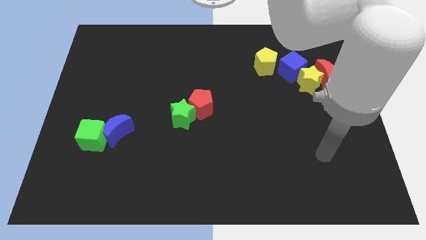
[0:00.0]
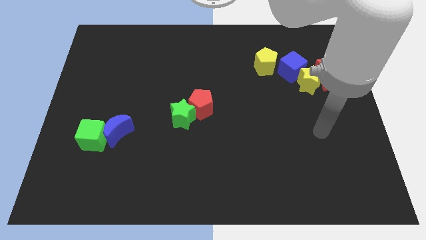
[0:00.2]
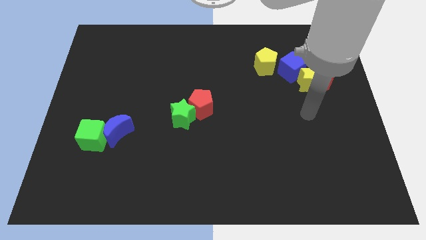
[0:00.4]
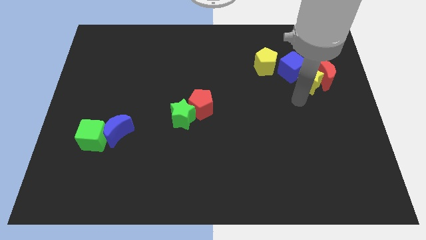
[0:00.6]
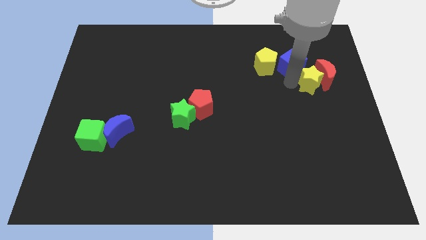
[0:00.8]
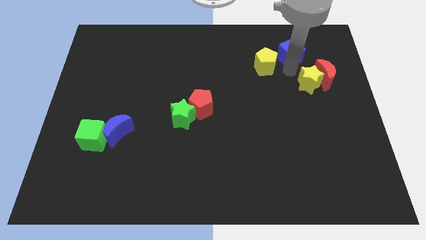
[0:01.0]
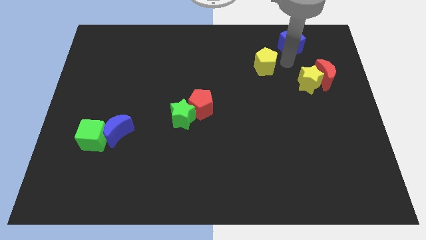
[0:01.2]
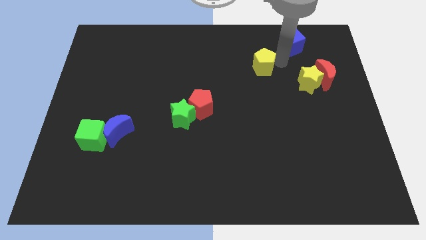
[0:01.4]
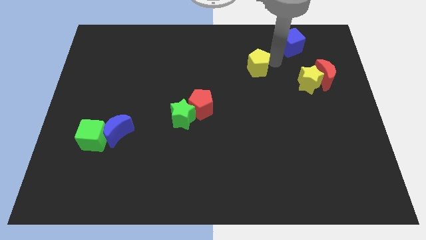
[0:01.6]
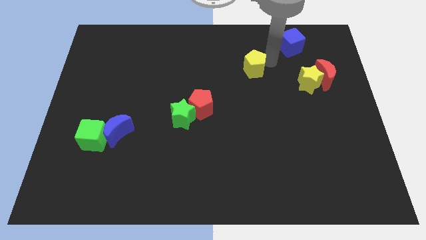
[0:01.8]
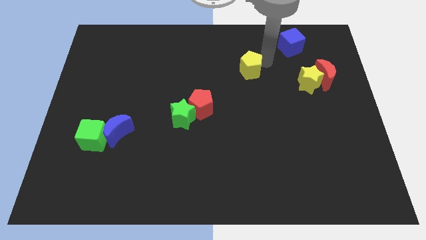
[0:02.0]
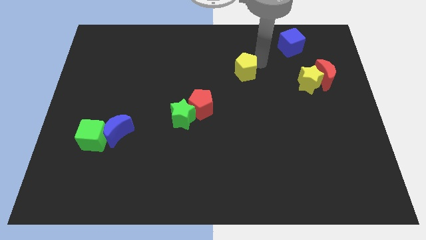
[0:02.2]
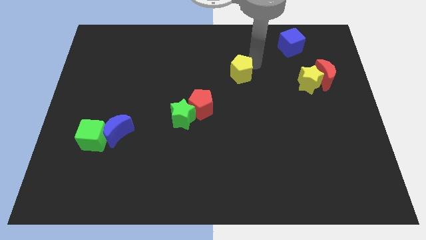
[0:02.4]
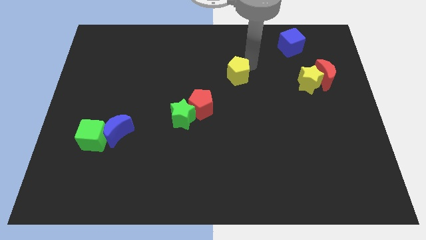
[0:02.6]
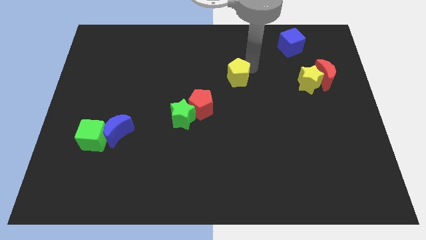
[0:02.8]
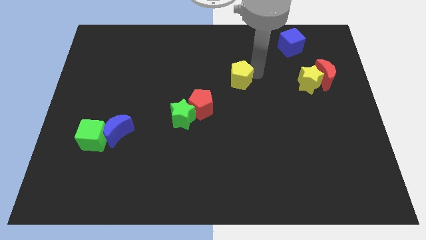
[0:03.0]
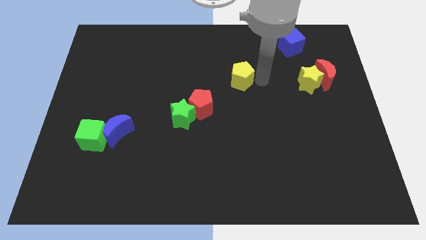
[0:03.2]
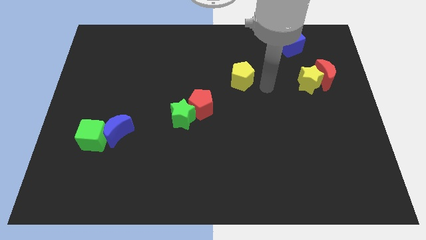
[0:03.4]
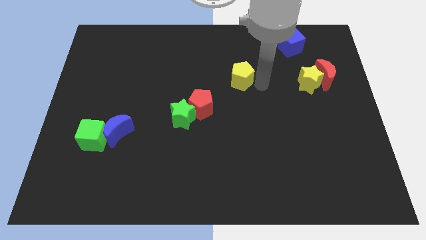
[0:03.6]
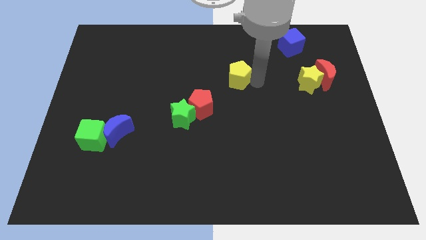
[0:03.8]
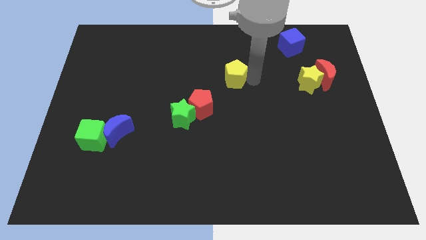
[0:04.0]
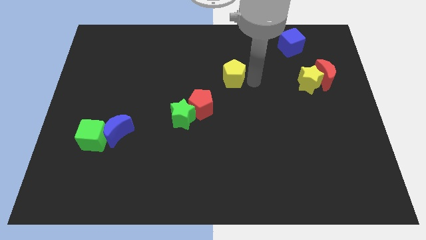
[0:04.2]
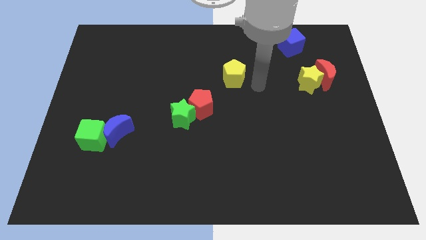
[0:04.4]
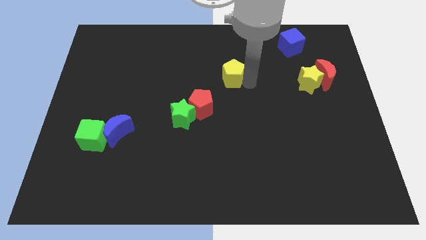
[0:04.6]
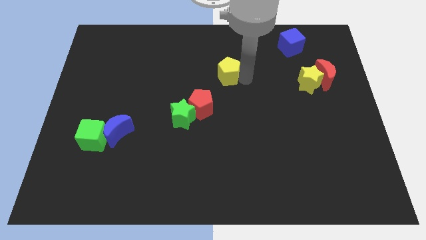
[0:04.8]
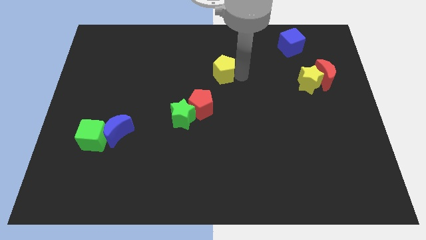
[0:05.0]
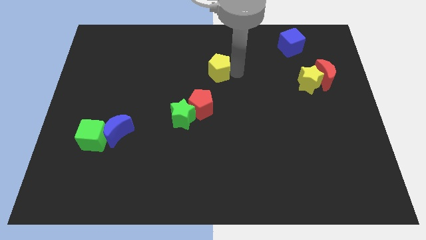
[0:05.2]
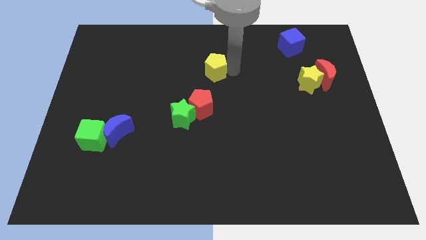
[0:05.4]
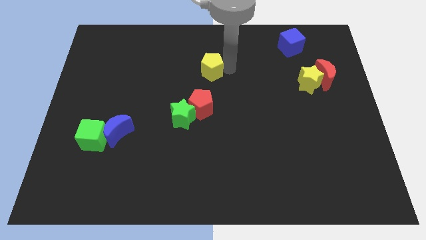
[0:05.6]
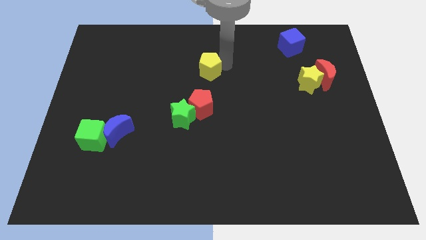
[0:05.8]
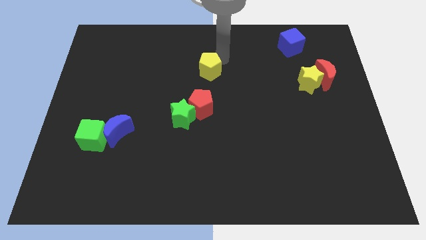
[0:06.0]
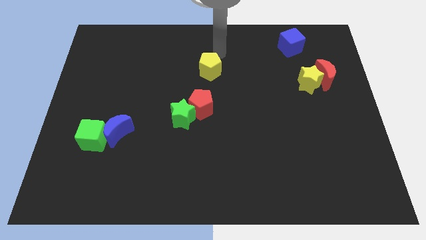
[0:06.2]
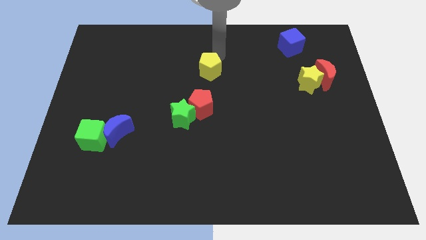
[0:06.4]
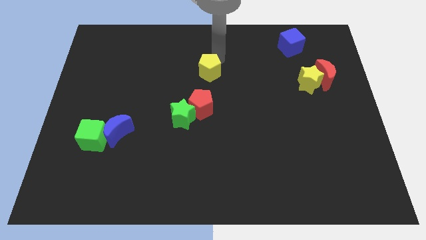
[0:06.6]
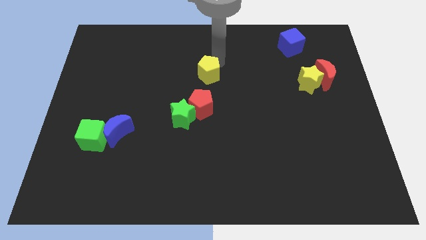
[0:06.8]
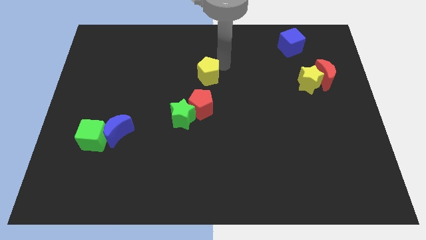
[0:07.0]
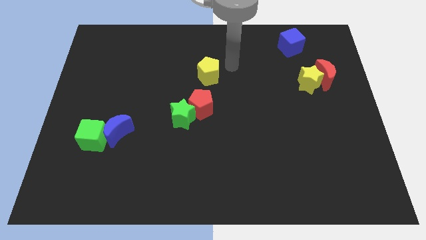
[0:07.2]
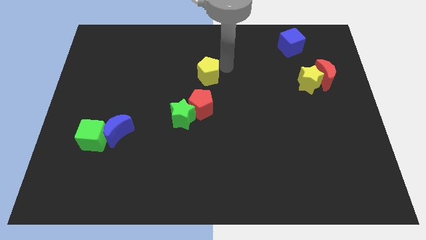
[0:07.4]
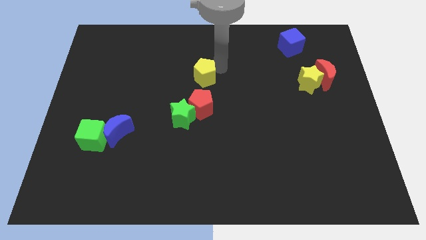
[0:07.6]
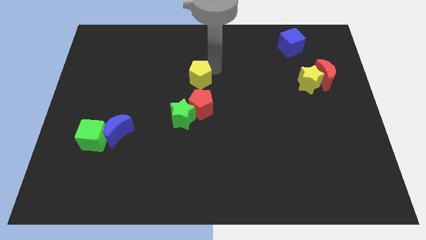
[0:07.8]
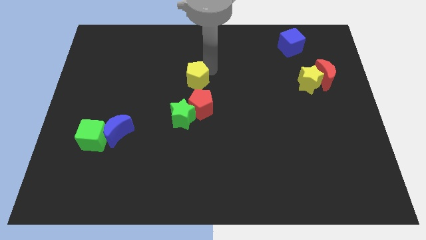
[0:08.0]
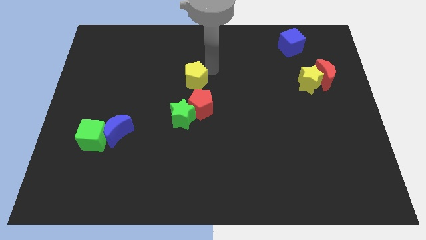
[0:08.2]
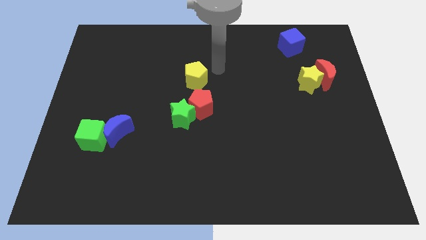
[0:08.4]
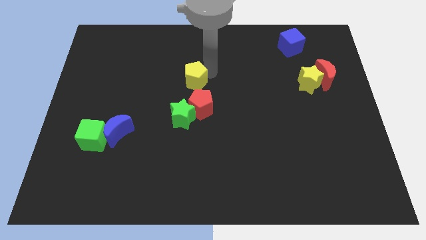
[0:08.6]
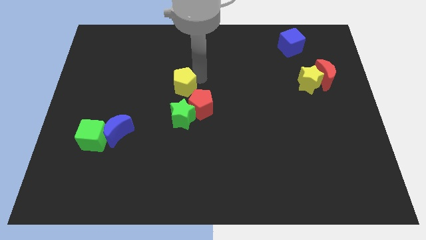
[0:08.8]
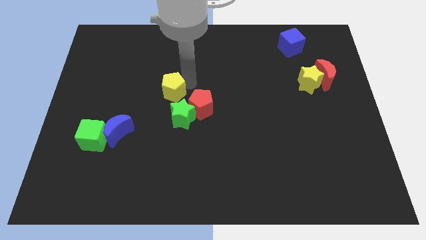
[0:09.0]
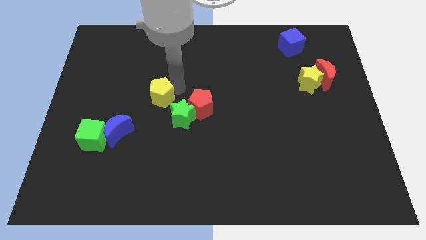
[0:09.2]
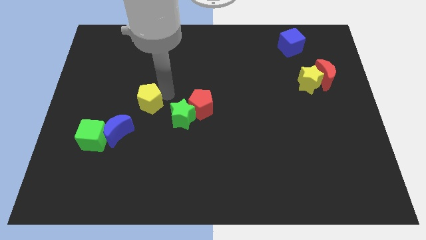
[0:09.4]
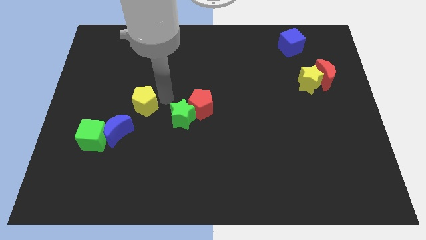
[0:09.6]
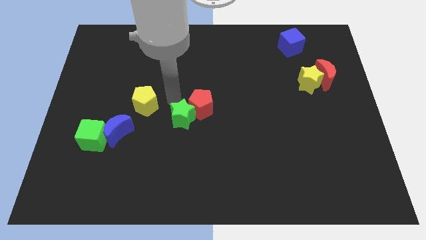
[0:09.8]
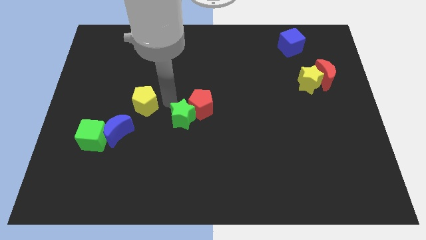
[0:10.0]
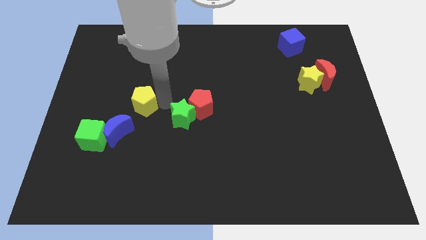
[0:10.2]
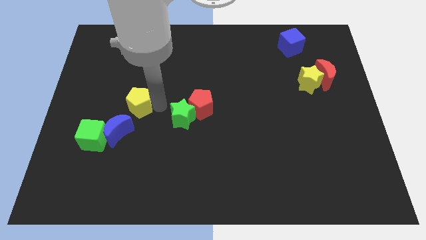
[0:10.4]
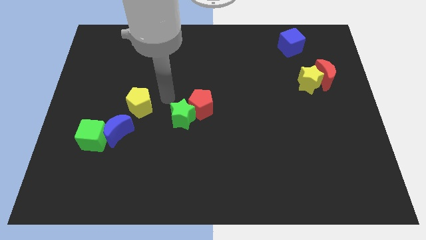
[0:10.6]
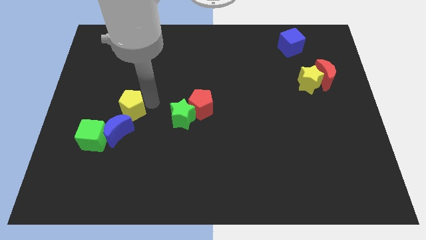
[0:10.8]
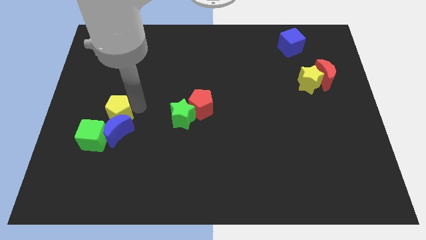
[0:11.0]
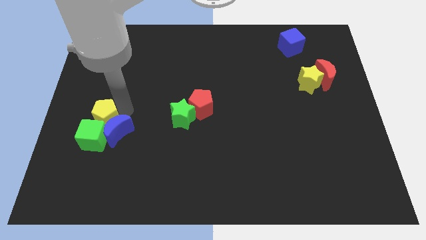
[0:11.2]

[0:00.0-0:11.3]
move the yellow pentagon towards the green cube

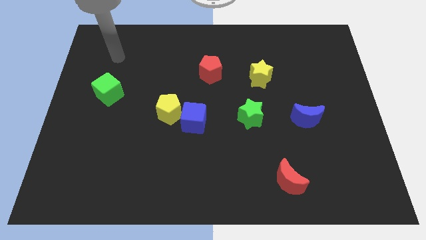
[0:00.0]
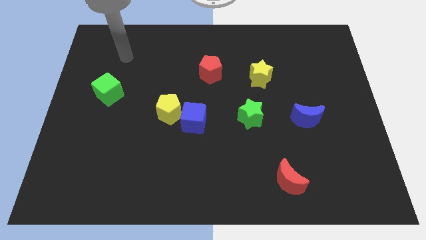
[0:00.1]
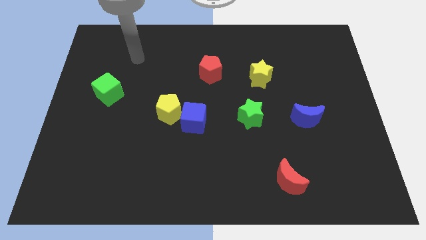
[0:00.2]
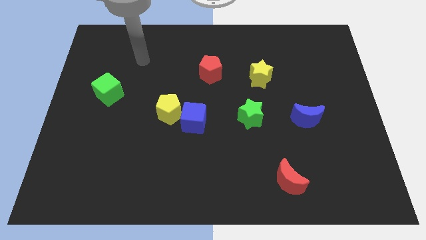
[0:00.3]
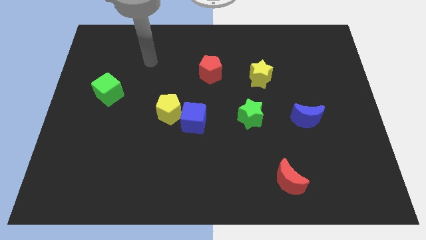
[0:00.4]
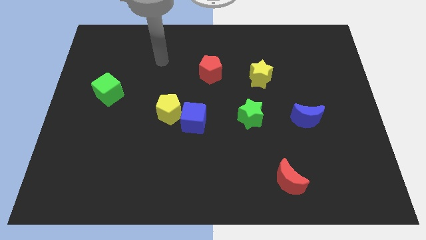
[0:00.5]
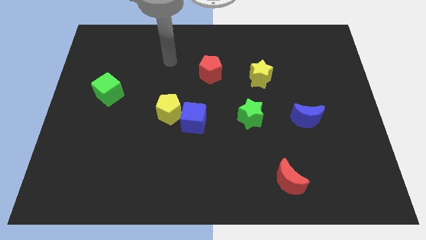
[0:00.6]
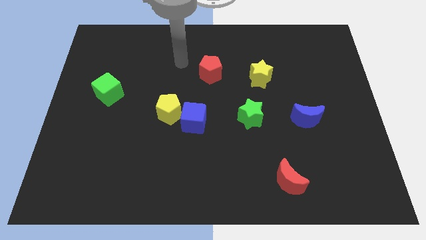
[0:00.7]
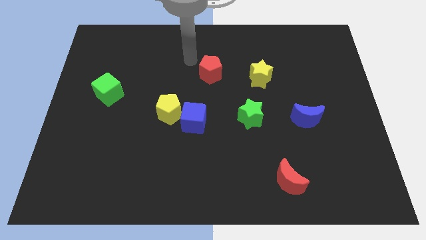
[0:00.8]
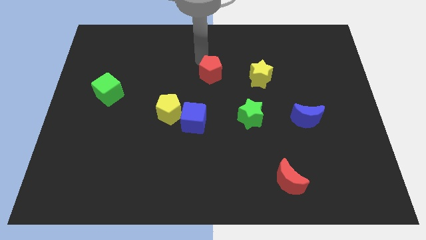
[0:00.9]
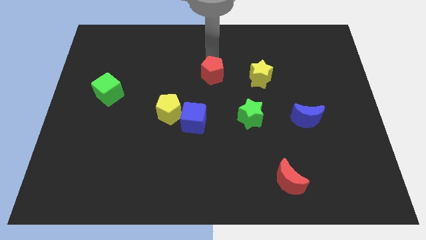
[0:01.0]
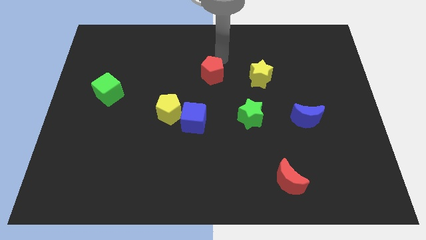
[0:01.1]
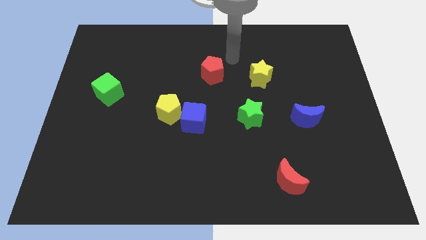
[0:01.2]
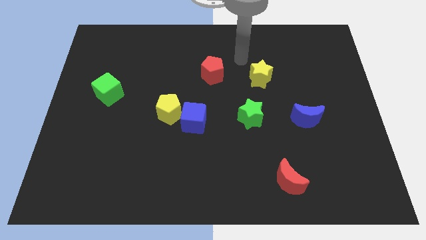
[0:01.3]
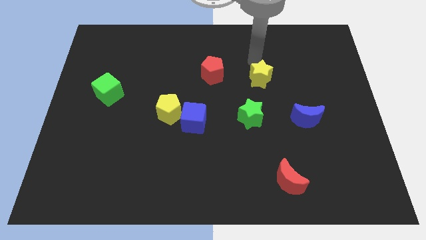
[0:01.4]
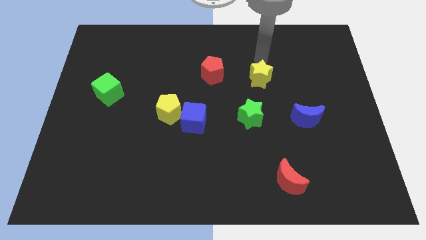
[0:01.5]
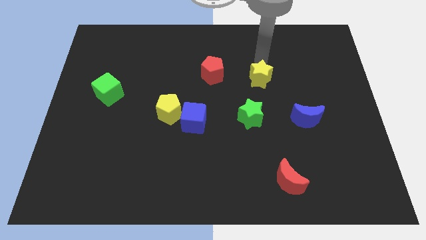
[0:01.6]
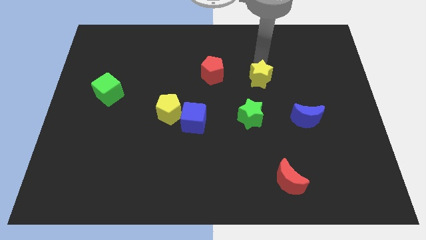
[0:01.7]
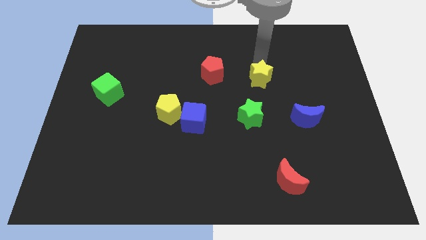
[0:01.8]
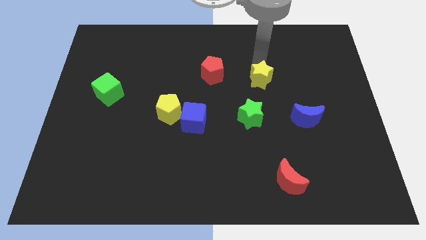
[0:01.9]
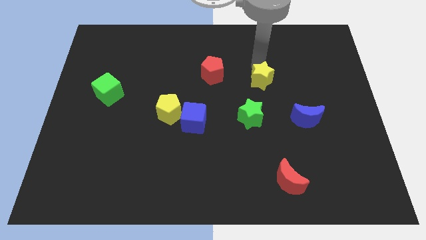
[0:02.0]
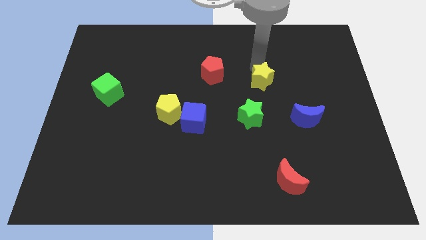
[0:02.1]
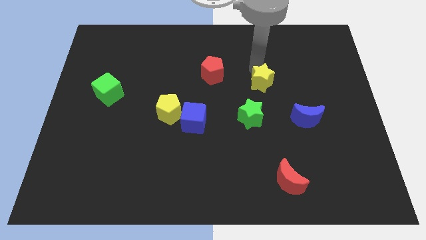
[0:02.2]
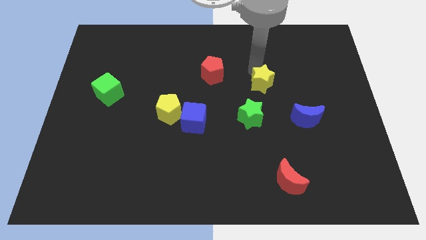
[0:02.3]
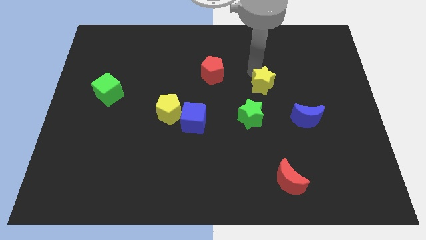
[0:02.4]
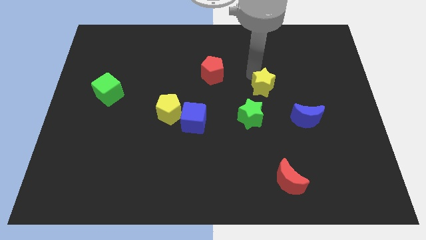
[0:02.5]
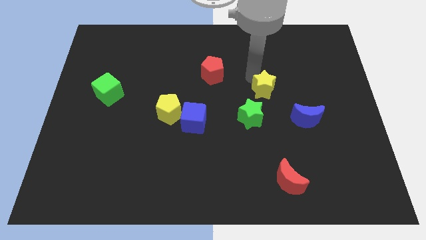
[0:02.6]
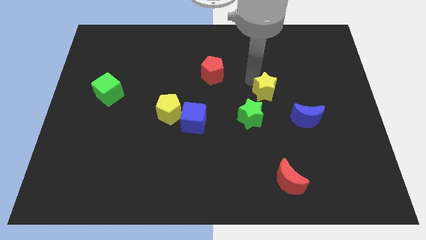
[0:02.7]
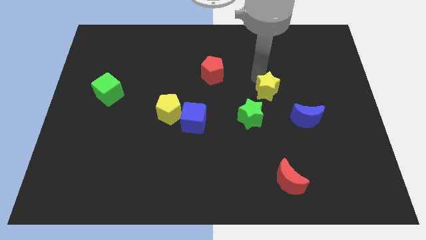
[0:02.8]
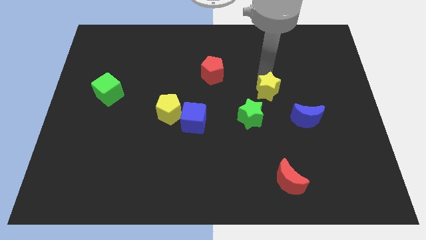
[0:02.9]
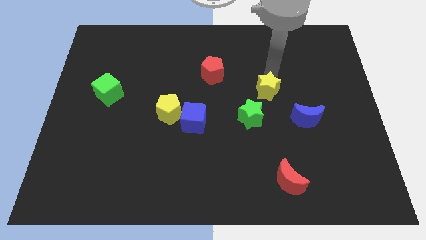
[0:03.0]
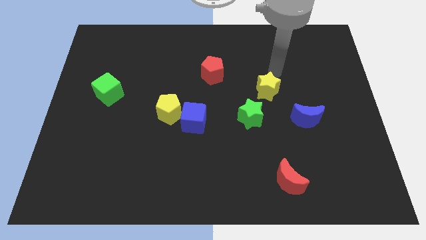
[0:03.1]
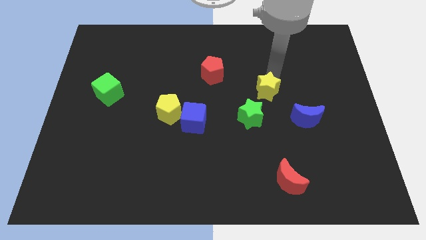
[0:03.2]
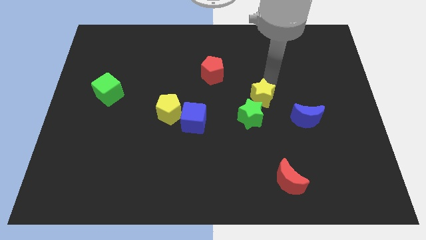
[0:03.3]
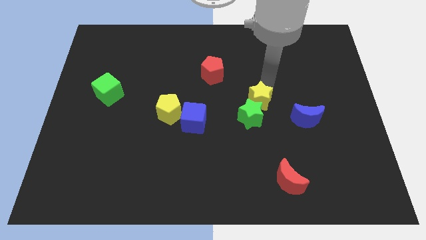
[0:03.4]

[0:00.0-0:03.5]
move the yellow star towards the green star
